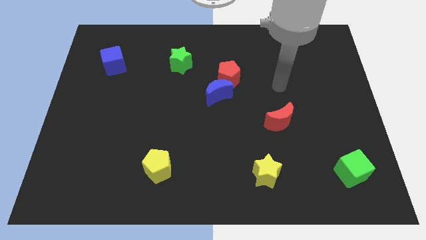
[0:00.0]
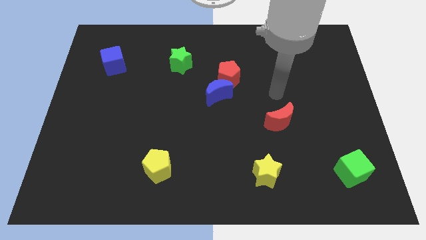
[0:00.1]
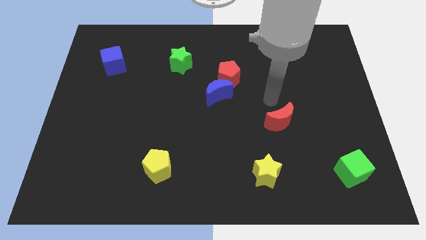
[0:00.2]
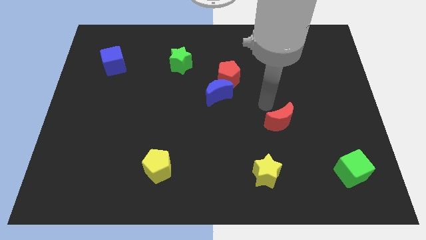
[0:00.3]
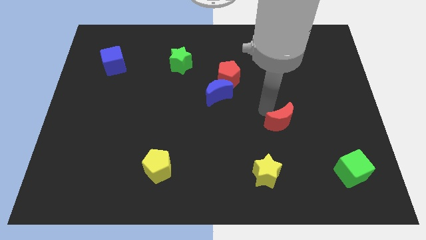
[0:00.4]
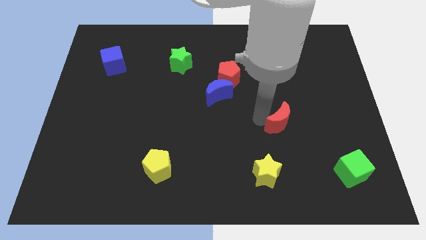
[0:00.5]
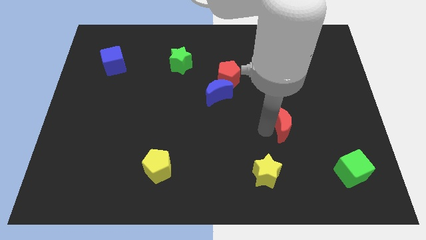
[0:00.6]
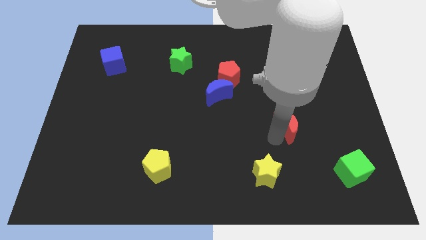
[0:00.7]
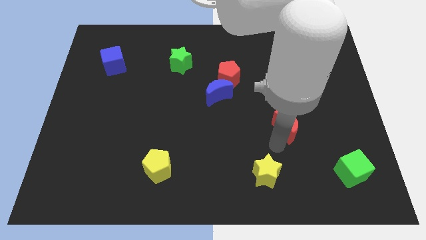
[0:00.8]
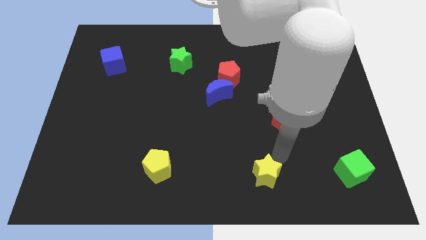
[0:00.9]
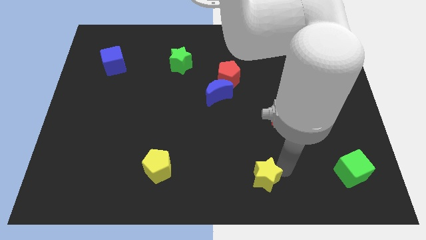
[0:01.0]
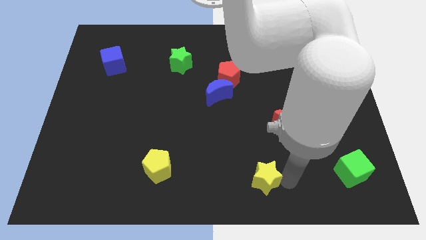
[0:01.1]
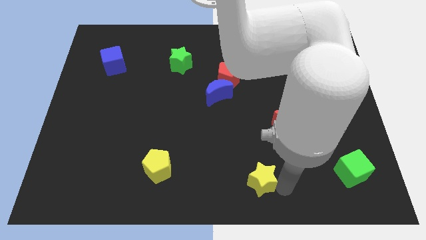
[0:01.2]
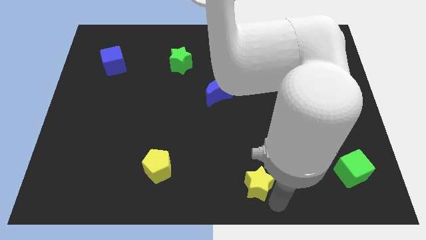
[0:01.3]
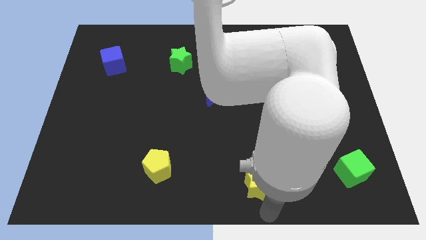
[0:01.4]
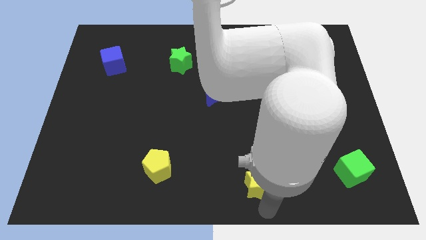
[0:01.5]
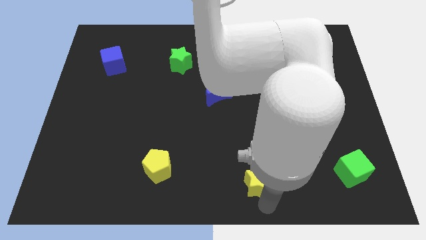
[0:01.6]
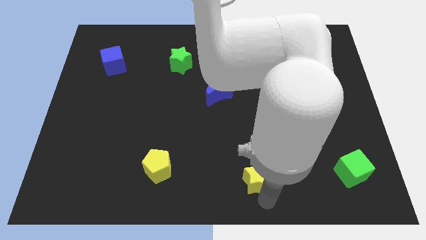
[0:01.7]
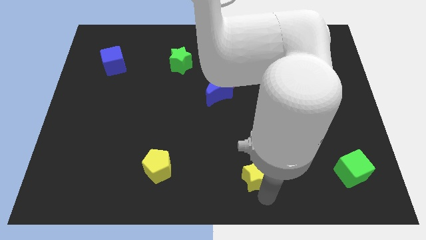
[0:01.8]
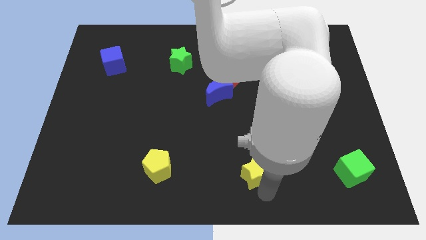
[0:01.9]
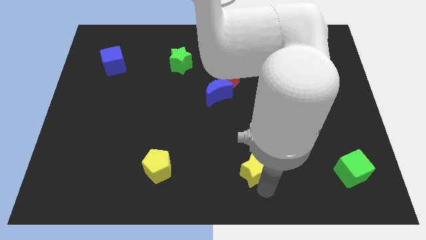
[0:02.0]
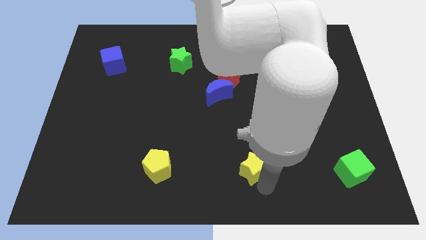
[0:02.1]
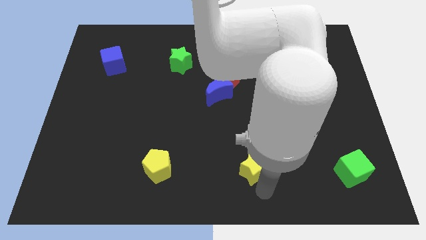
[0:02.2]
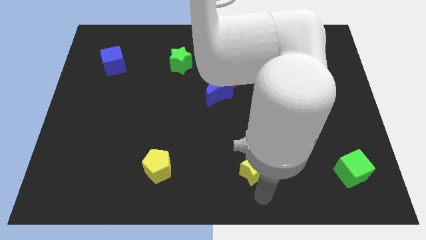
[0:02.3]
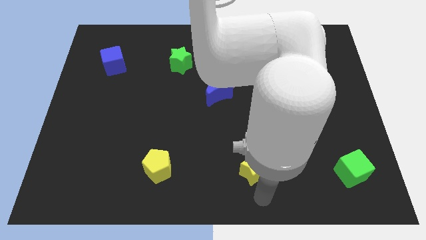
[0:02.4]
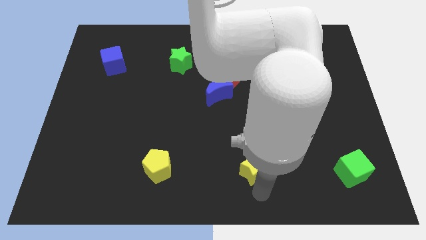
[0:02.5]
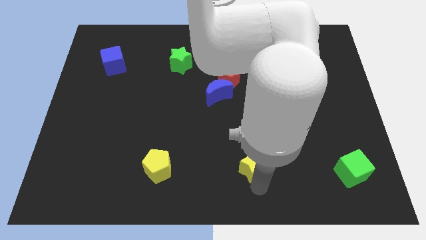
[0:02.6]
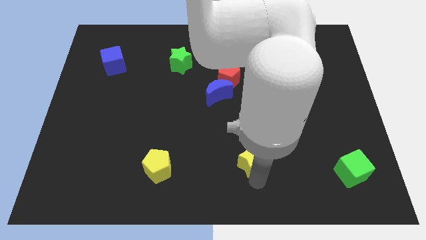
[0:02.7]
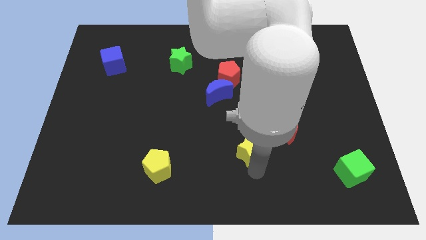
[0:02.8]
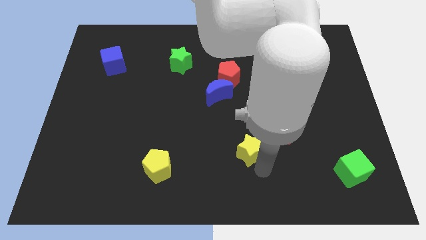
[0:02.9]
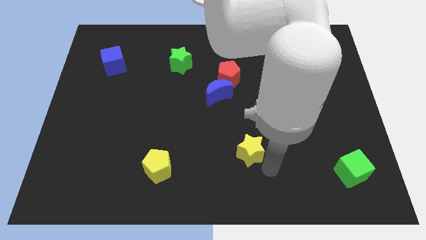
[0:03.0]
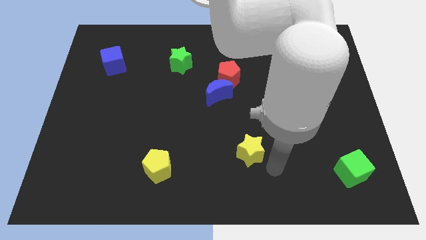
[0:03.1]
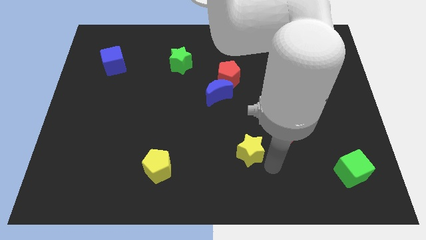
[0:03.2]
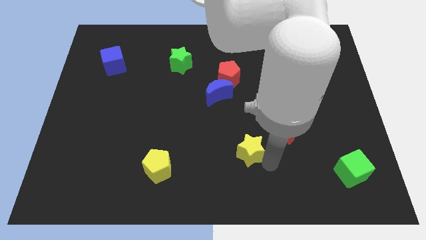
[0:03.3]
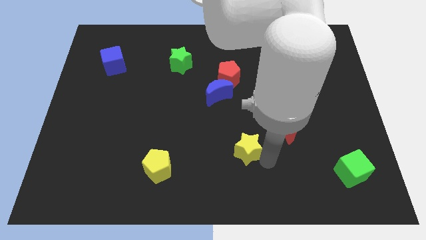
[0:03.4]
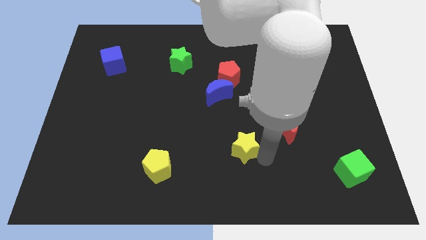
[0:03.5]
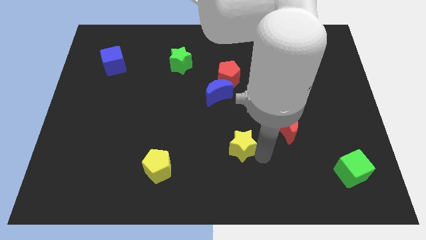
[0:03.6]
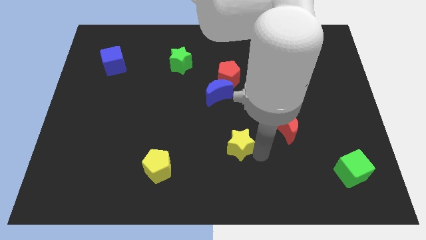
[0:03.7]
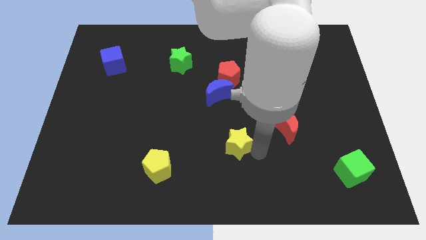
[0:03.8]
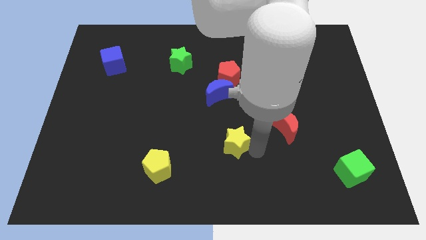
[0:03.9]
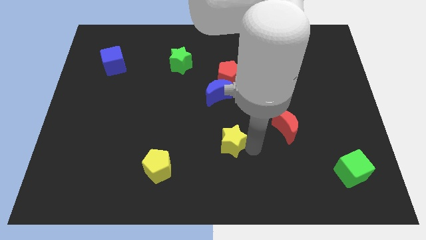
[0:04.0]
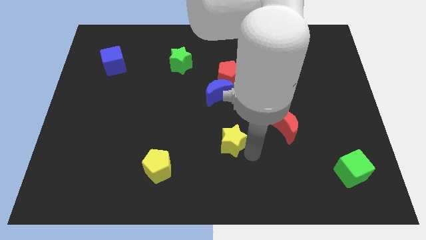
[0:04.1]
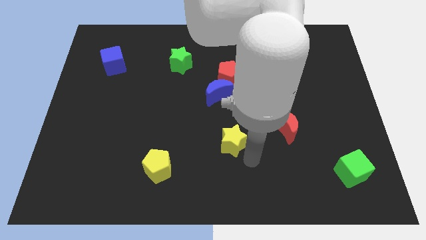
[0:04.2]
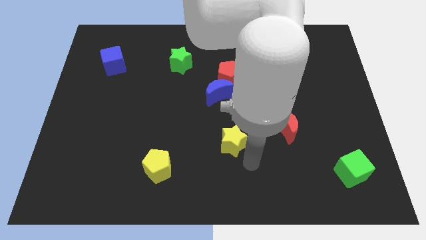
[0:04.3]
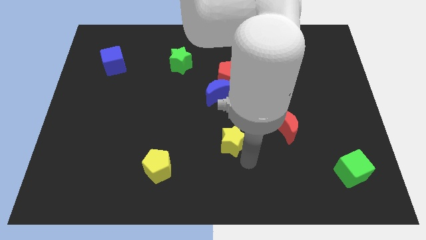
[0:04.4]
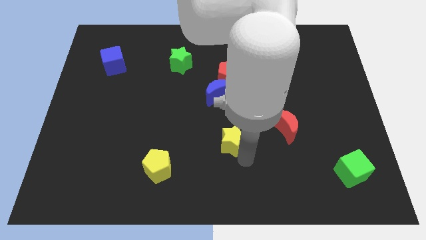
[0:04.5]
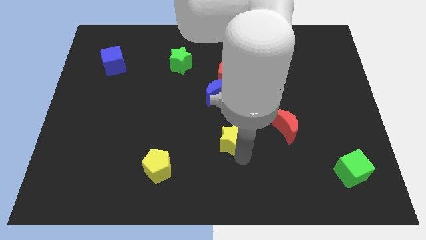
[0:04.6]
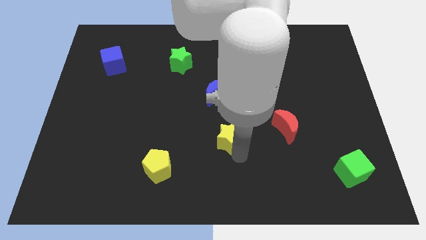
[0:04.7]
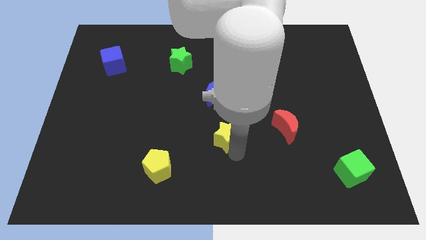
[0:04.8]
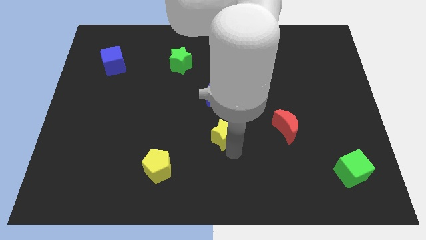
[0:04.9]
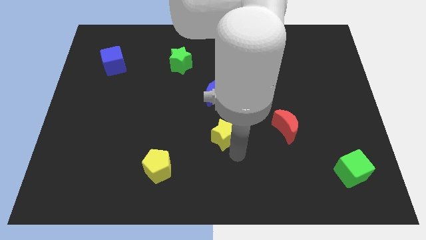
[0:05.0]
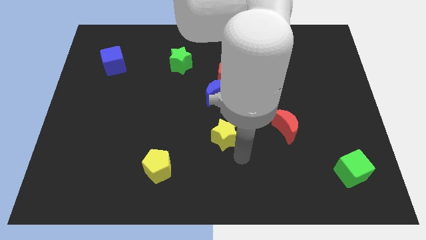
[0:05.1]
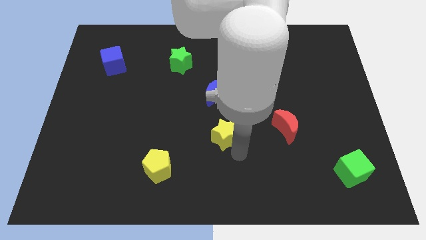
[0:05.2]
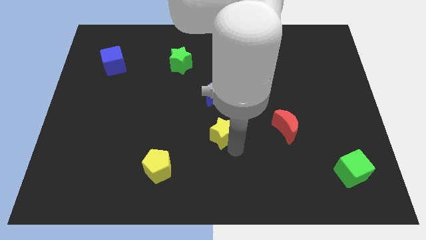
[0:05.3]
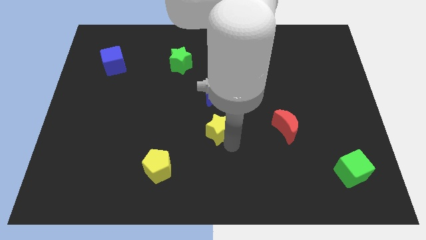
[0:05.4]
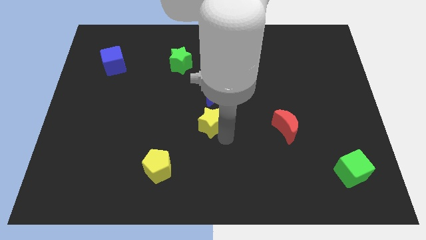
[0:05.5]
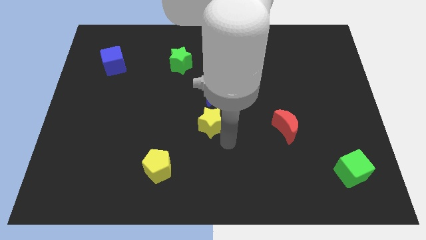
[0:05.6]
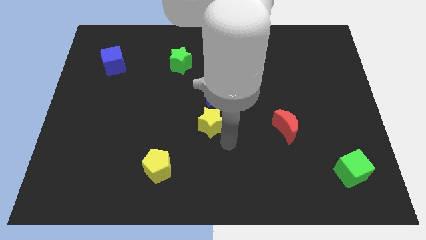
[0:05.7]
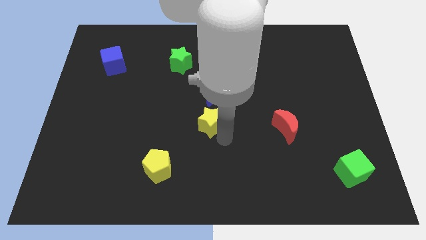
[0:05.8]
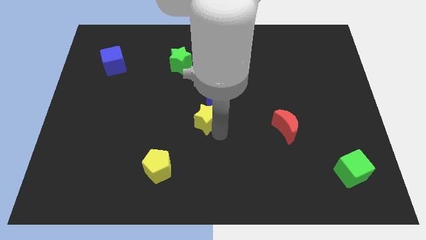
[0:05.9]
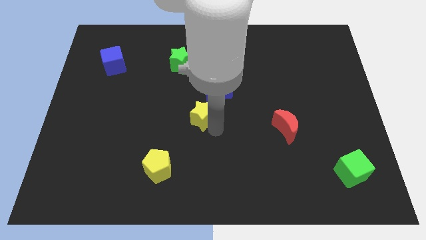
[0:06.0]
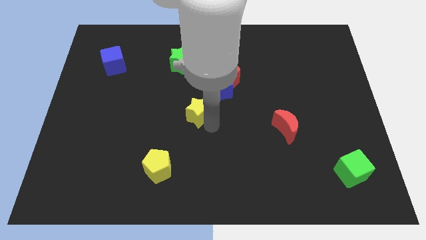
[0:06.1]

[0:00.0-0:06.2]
push the yellow star upwards and to the left diagonally

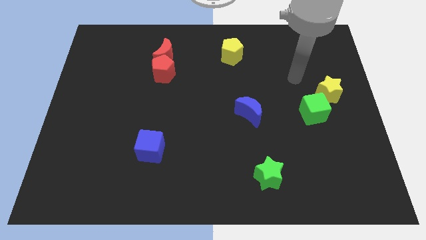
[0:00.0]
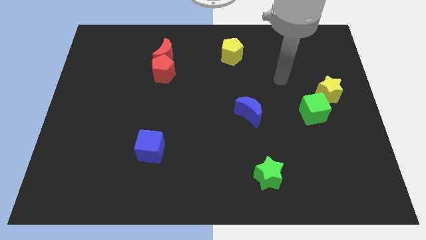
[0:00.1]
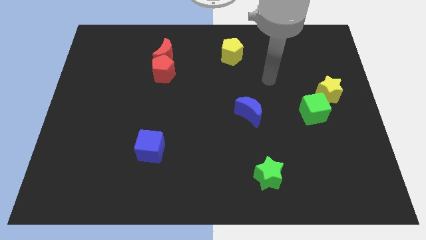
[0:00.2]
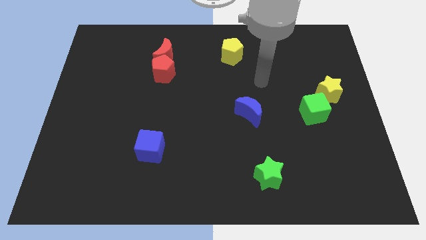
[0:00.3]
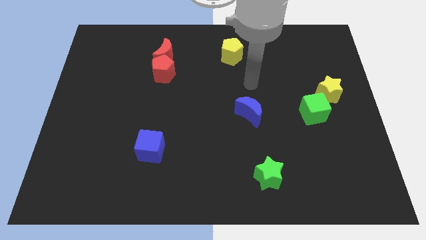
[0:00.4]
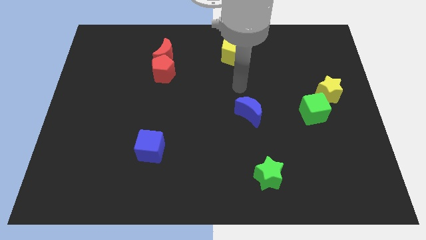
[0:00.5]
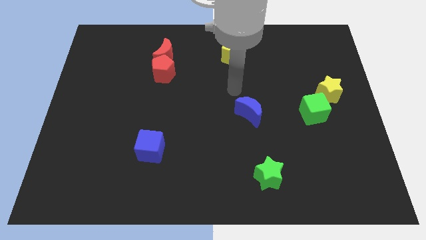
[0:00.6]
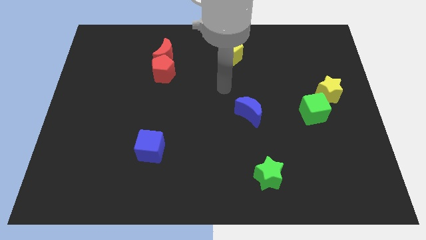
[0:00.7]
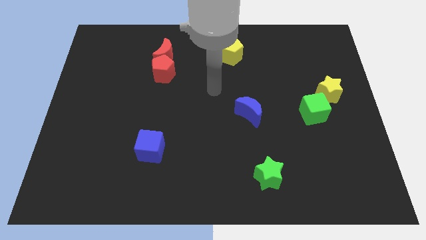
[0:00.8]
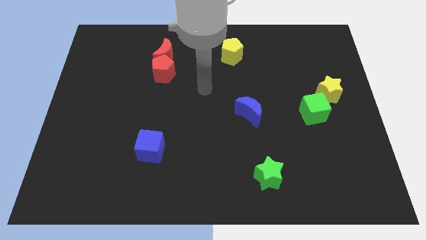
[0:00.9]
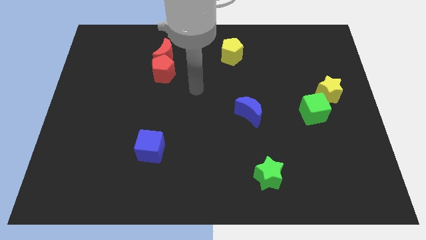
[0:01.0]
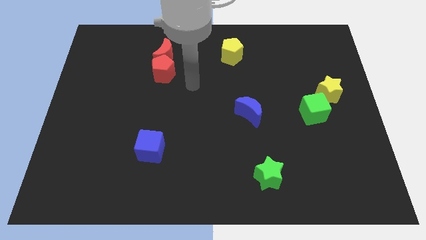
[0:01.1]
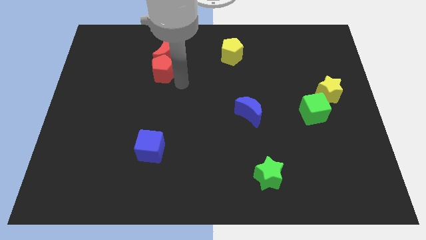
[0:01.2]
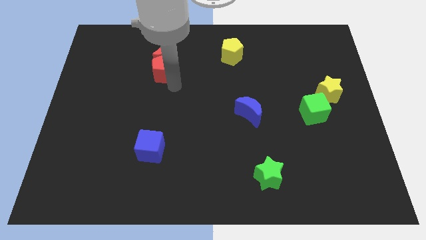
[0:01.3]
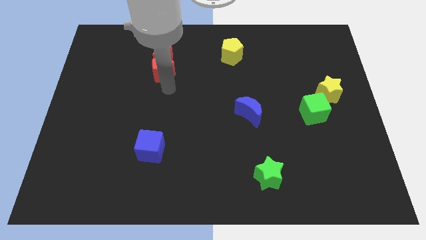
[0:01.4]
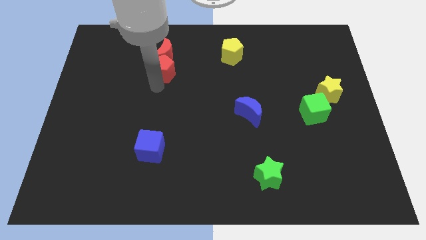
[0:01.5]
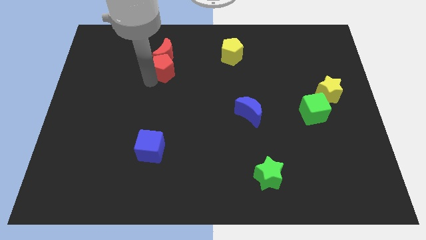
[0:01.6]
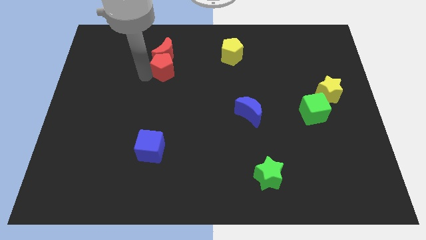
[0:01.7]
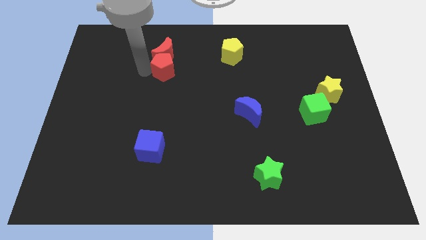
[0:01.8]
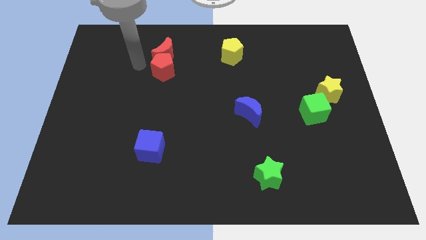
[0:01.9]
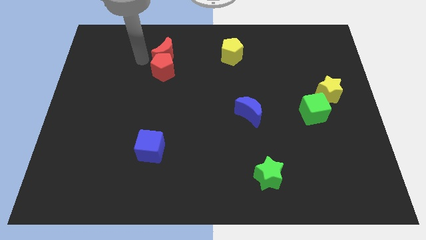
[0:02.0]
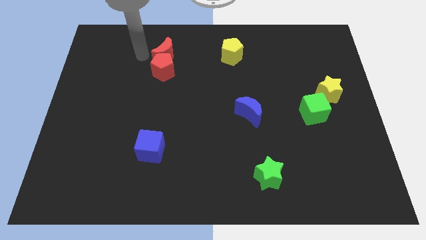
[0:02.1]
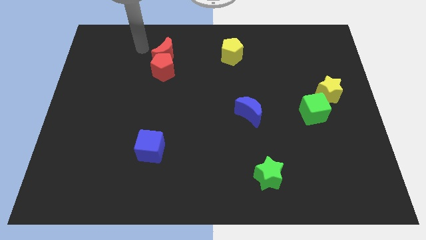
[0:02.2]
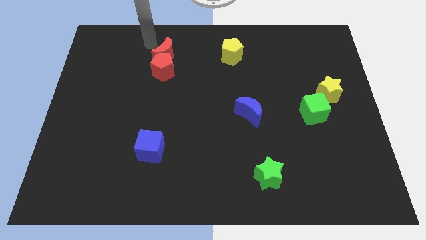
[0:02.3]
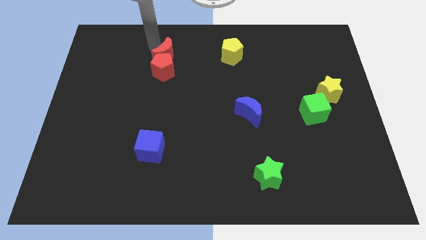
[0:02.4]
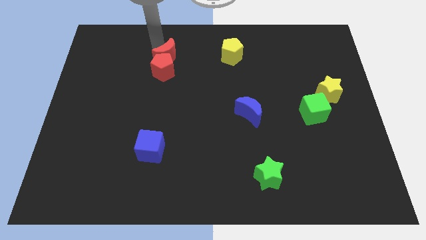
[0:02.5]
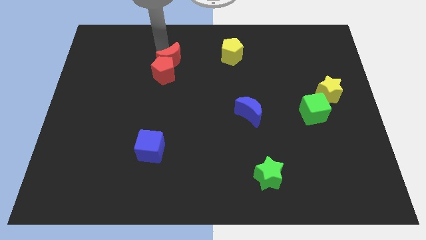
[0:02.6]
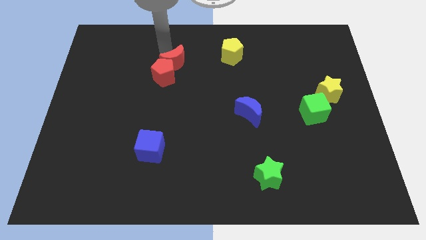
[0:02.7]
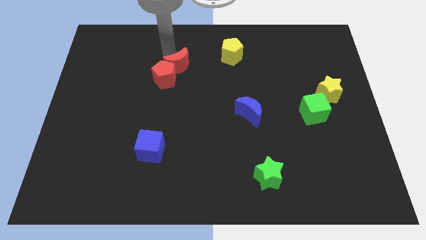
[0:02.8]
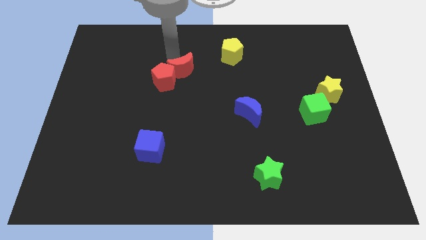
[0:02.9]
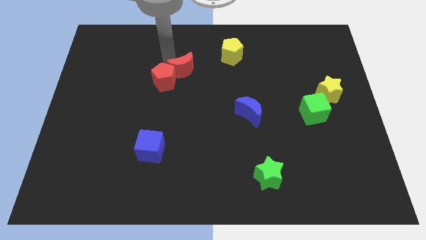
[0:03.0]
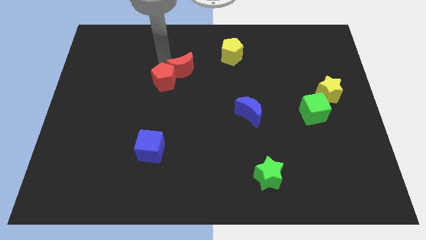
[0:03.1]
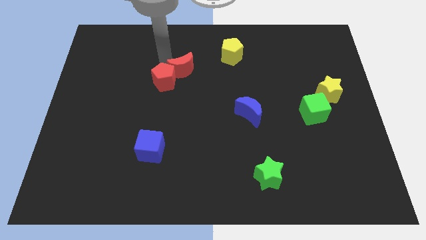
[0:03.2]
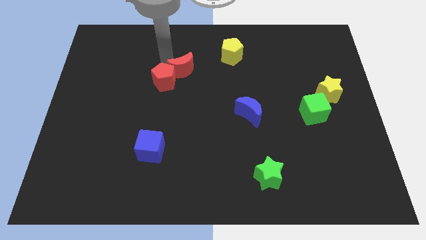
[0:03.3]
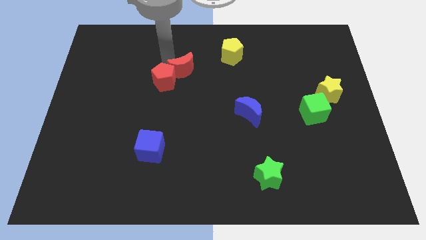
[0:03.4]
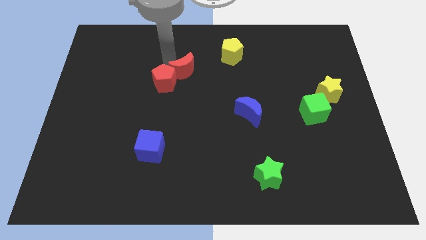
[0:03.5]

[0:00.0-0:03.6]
slightly move the red moon downwards and to the right diagonally
